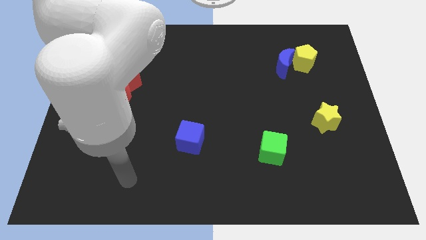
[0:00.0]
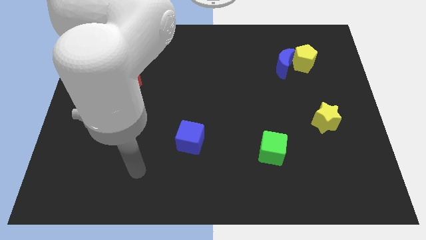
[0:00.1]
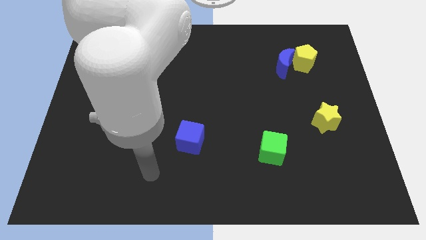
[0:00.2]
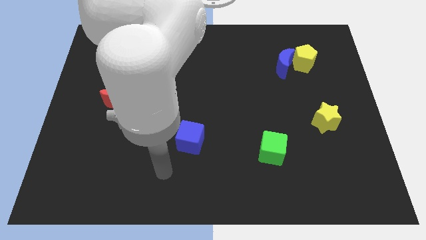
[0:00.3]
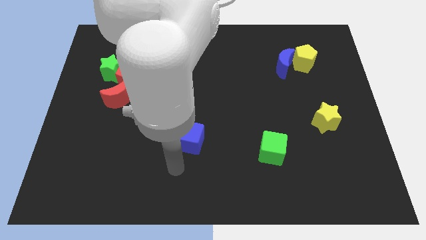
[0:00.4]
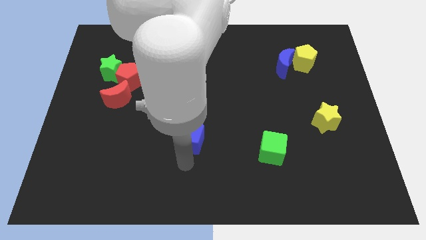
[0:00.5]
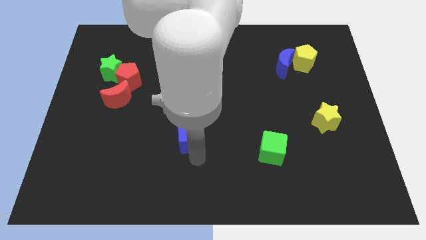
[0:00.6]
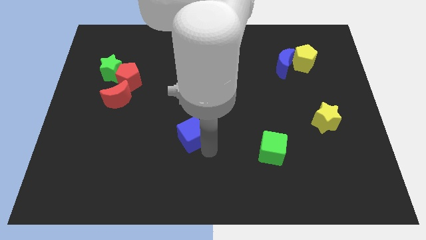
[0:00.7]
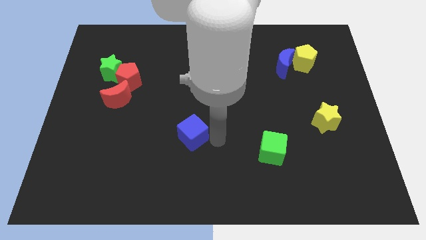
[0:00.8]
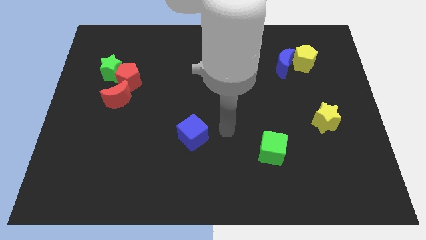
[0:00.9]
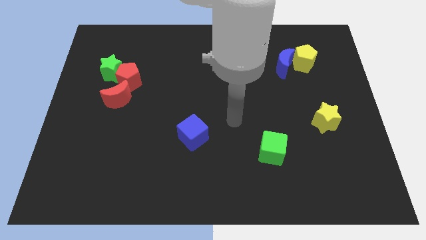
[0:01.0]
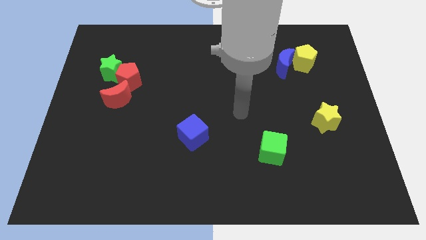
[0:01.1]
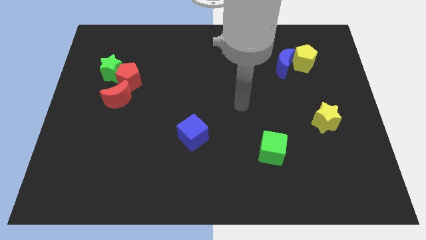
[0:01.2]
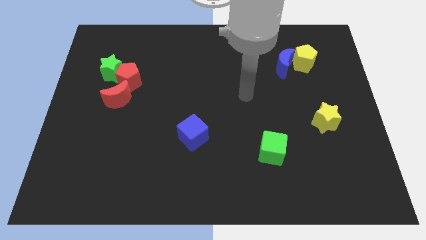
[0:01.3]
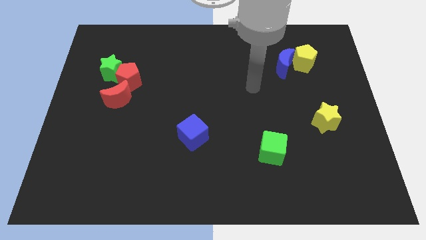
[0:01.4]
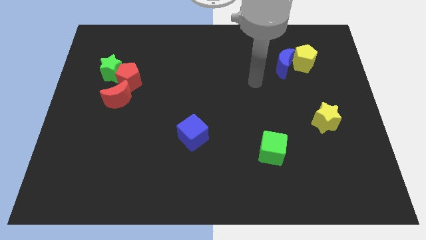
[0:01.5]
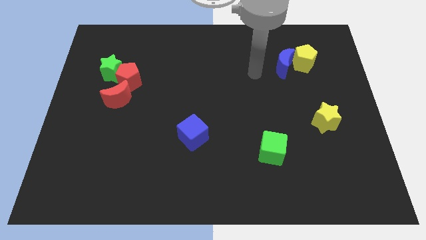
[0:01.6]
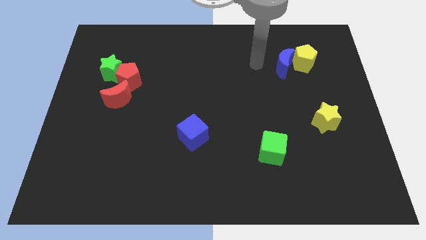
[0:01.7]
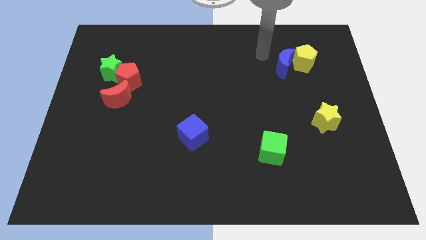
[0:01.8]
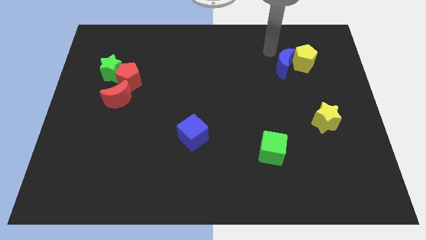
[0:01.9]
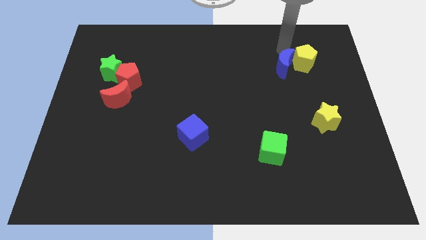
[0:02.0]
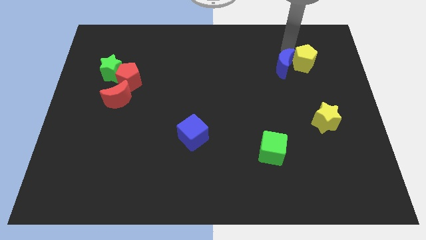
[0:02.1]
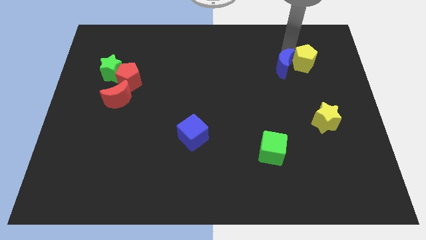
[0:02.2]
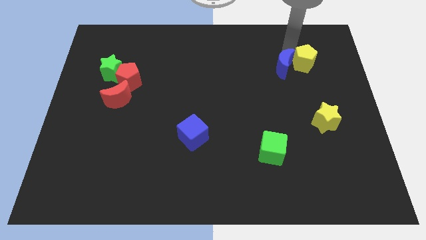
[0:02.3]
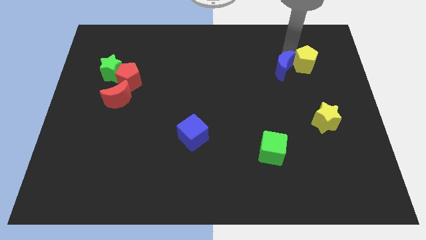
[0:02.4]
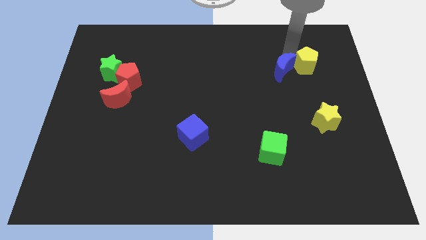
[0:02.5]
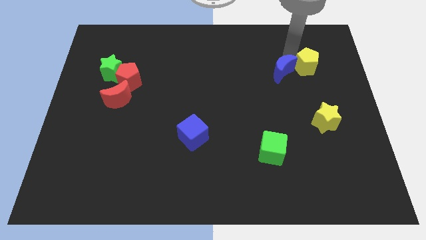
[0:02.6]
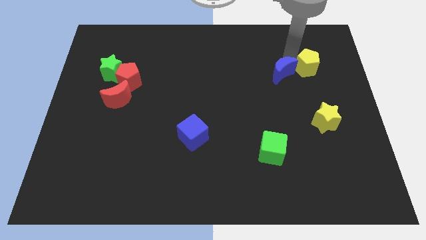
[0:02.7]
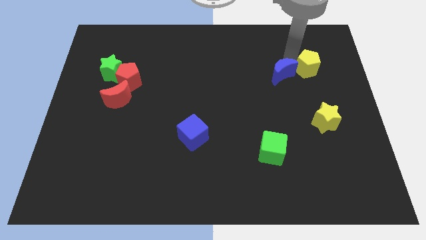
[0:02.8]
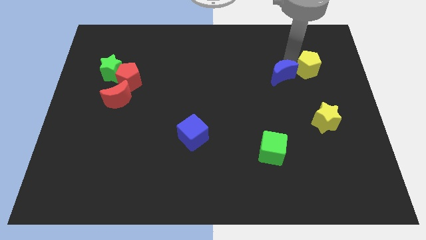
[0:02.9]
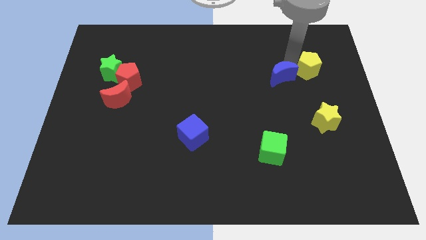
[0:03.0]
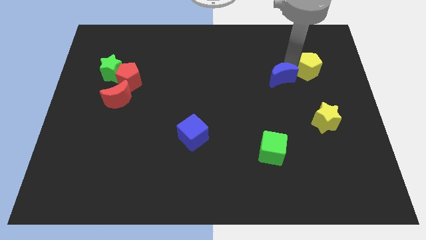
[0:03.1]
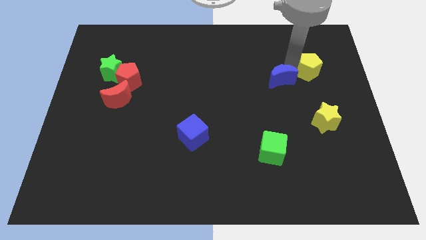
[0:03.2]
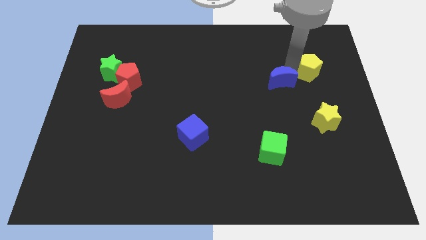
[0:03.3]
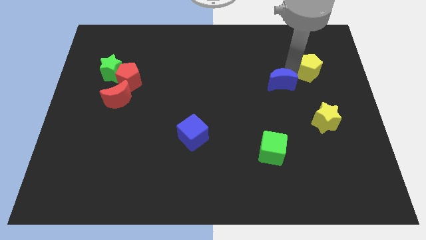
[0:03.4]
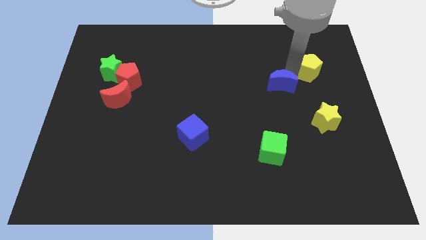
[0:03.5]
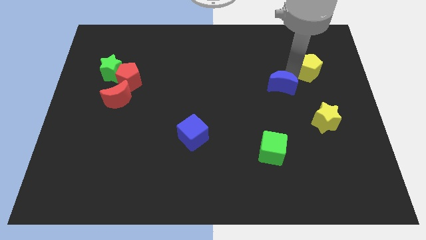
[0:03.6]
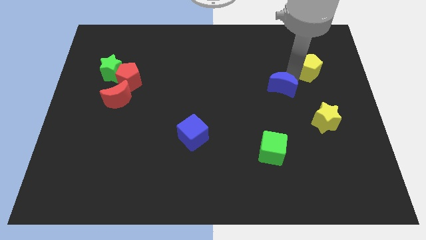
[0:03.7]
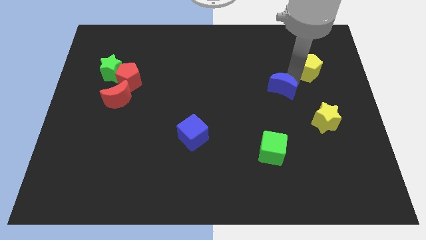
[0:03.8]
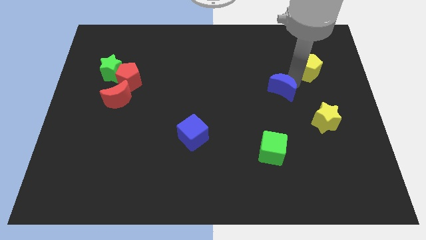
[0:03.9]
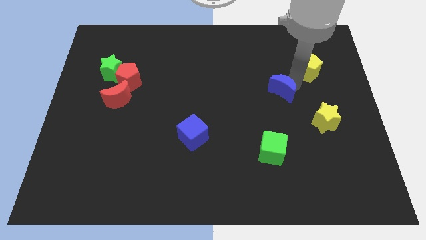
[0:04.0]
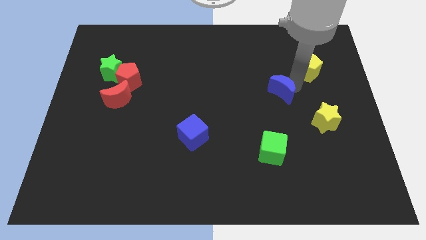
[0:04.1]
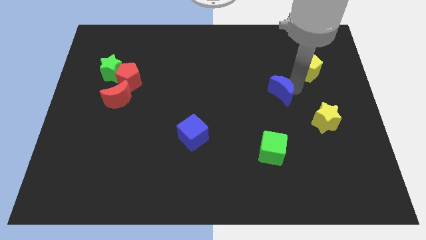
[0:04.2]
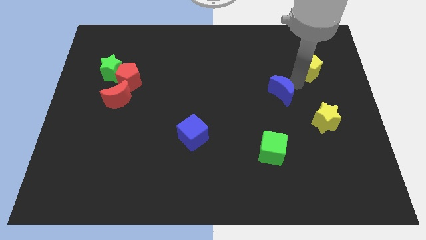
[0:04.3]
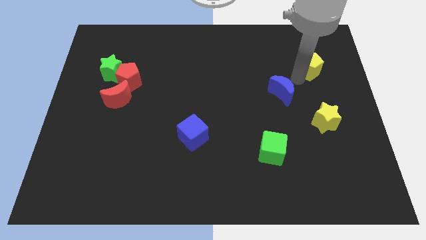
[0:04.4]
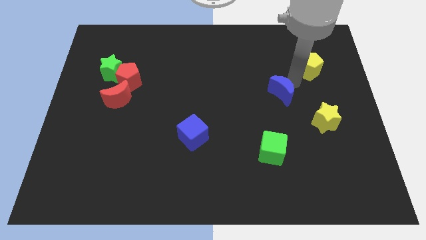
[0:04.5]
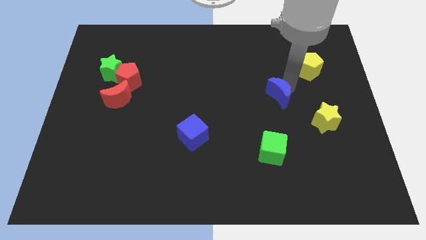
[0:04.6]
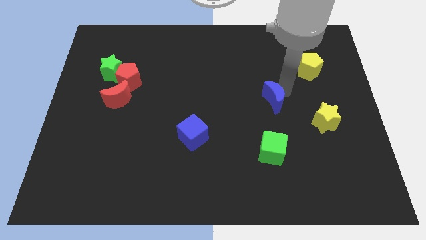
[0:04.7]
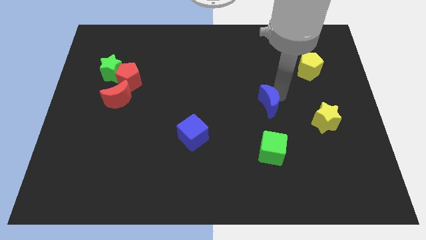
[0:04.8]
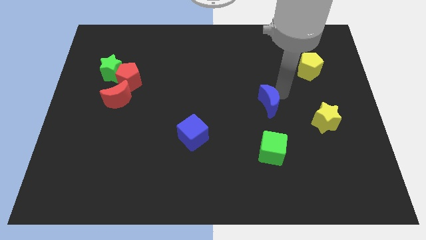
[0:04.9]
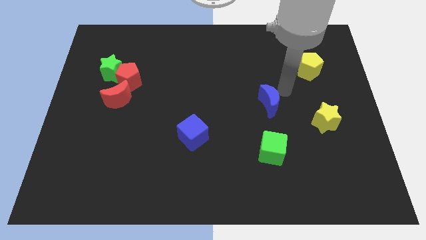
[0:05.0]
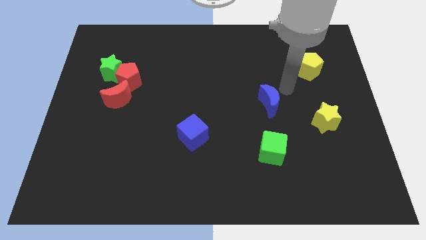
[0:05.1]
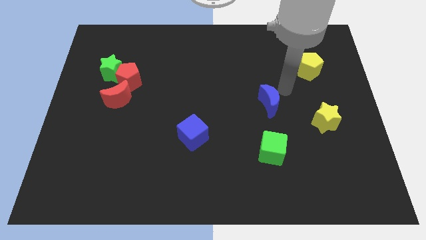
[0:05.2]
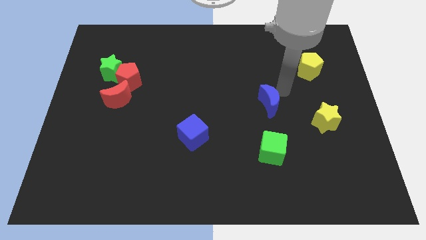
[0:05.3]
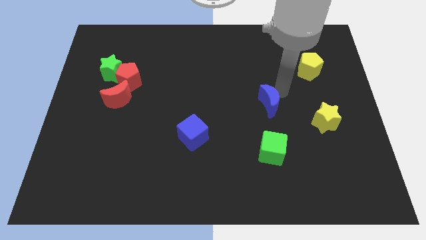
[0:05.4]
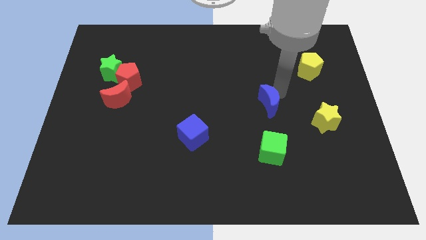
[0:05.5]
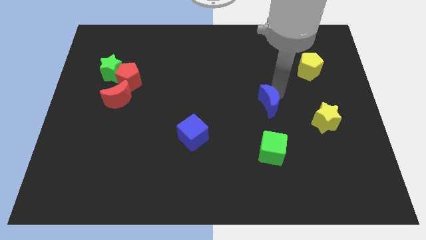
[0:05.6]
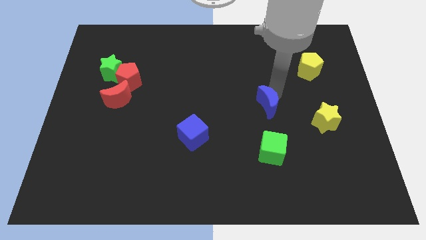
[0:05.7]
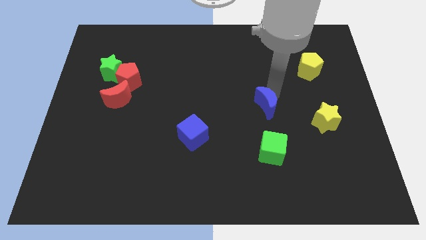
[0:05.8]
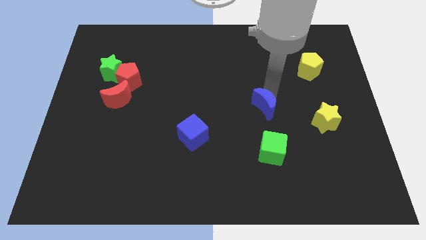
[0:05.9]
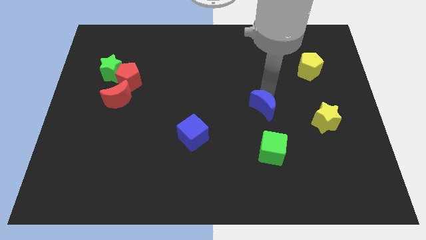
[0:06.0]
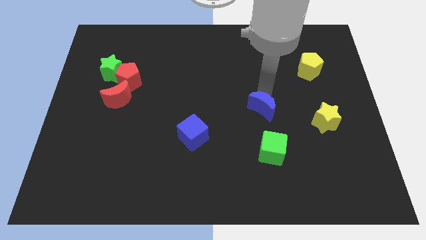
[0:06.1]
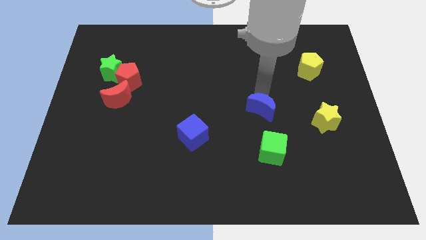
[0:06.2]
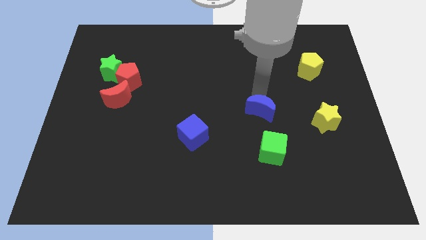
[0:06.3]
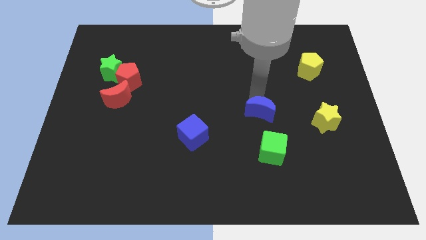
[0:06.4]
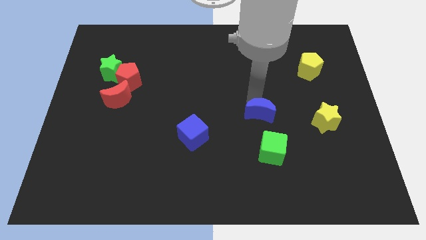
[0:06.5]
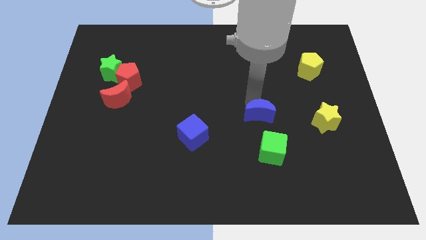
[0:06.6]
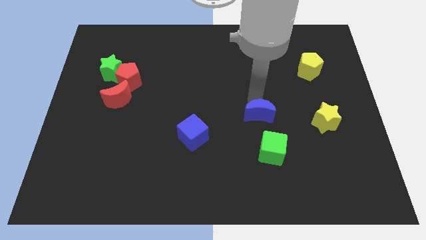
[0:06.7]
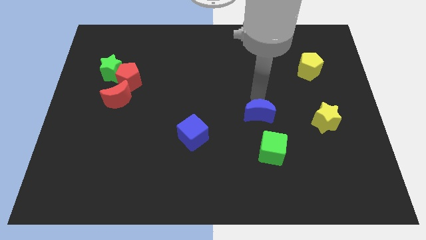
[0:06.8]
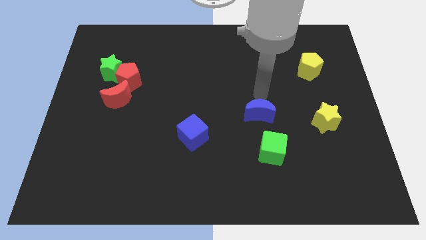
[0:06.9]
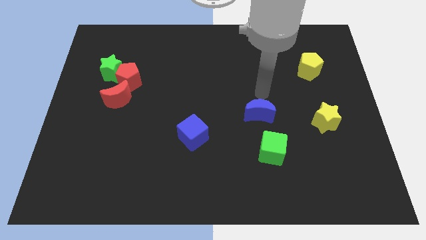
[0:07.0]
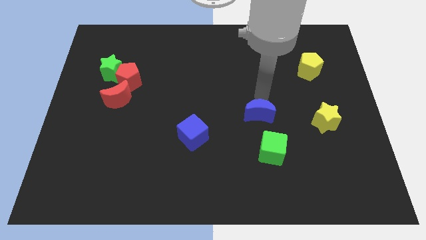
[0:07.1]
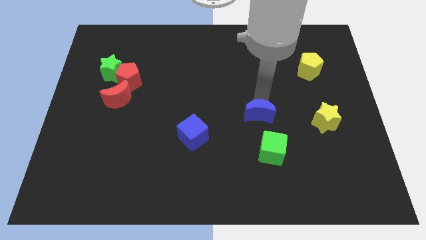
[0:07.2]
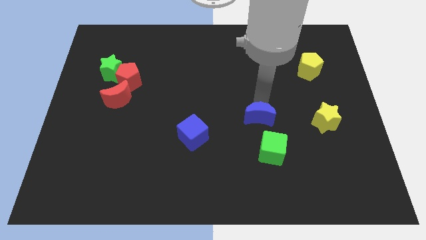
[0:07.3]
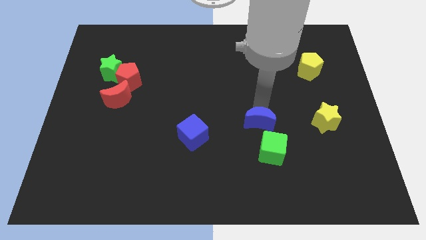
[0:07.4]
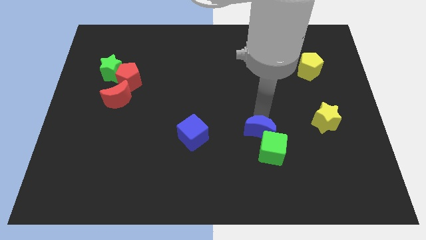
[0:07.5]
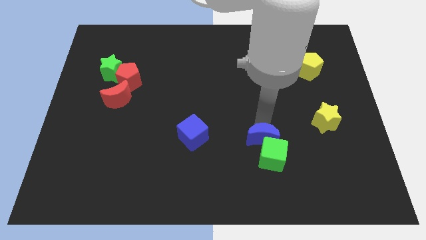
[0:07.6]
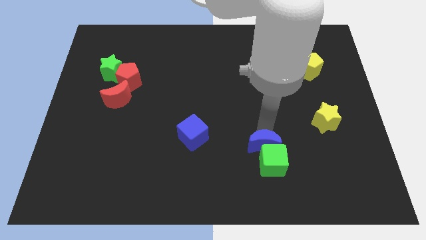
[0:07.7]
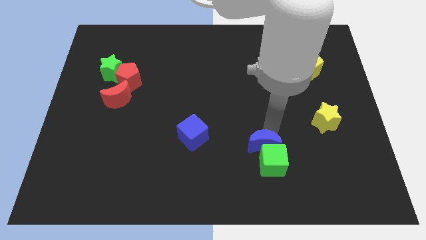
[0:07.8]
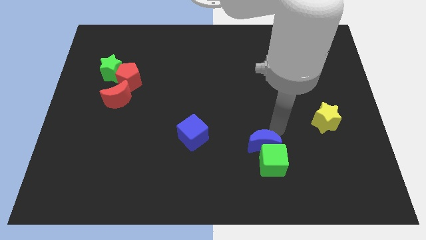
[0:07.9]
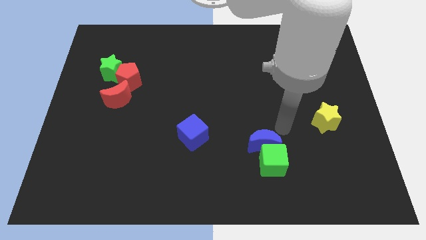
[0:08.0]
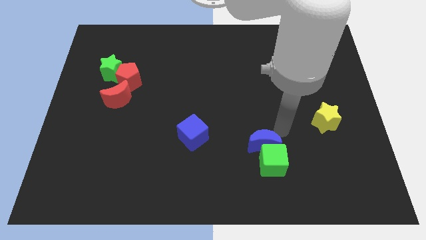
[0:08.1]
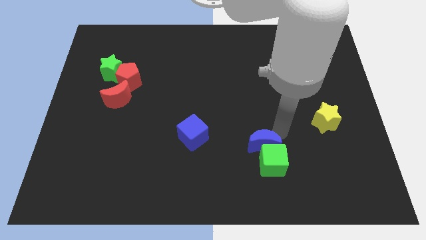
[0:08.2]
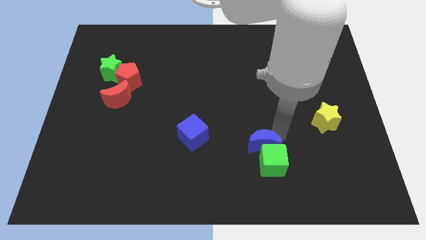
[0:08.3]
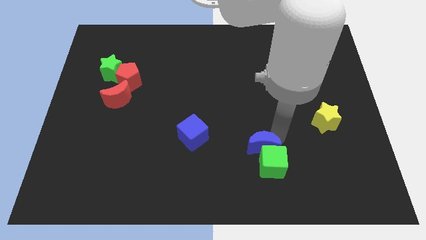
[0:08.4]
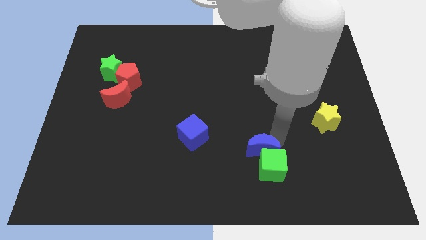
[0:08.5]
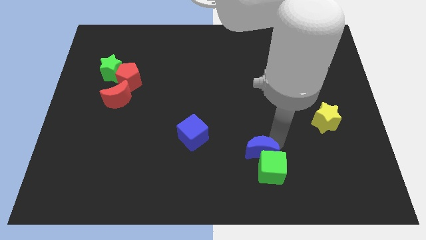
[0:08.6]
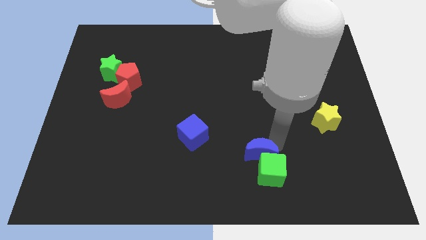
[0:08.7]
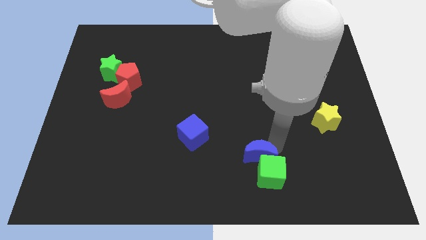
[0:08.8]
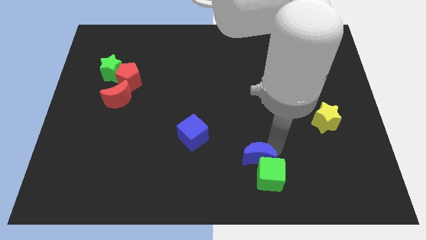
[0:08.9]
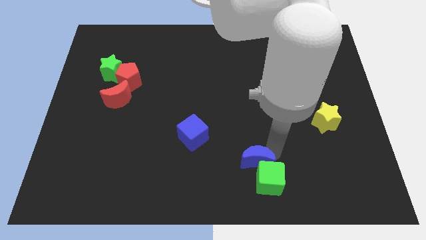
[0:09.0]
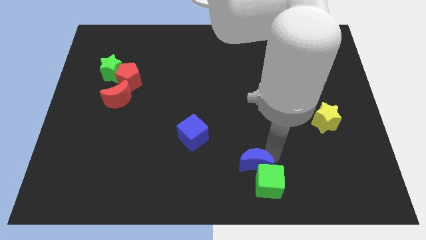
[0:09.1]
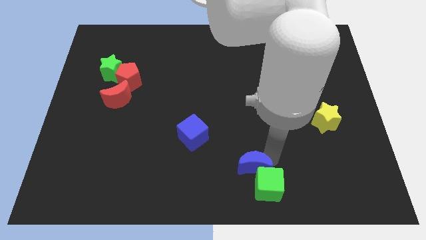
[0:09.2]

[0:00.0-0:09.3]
push the blue moon to the bottom side
